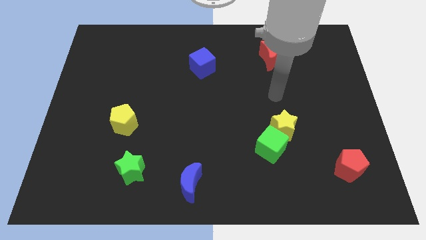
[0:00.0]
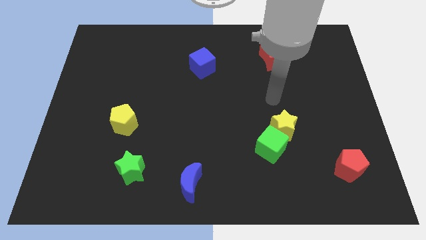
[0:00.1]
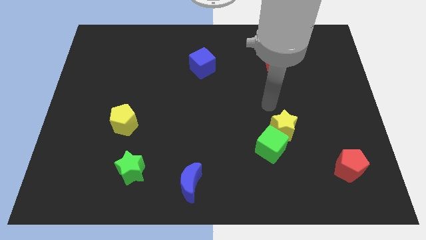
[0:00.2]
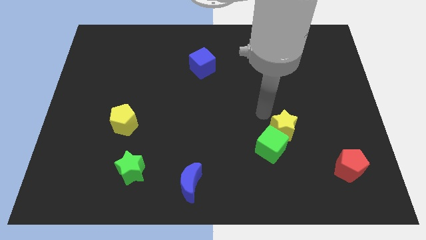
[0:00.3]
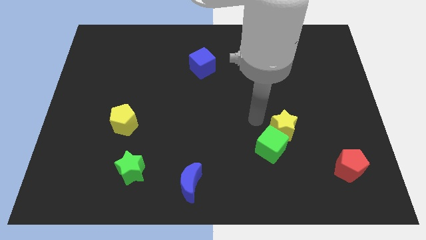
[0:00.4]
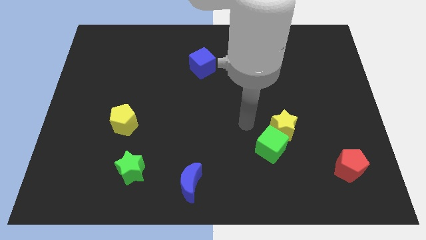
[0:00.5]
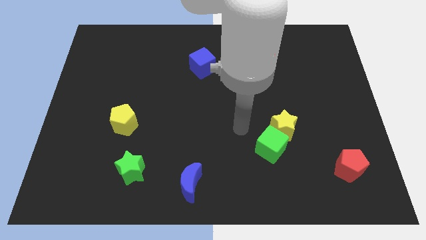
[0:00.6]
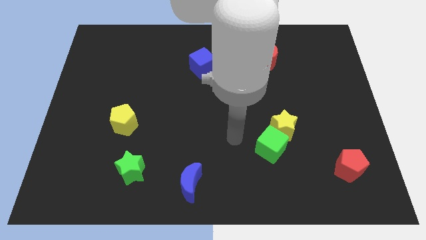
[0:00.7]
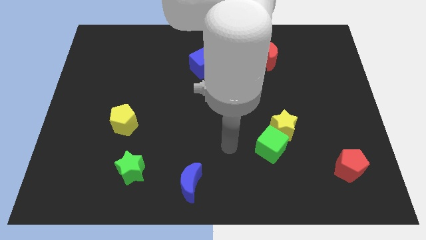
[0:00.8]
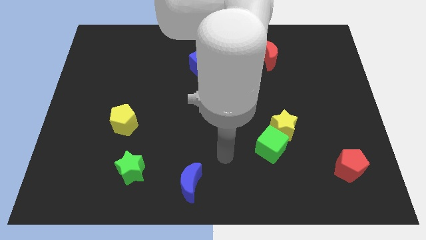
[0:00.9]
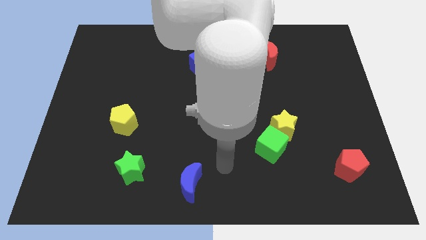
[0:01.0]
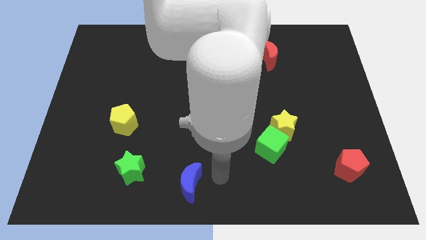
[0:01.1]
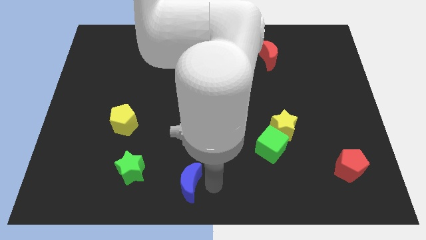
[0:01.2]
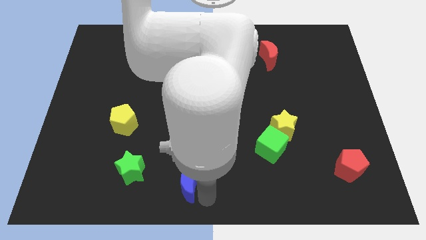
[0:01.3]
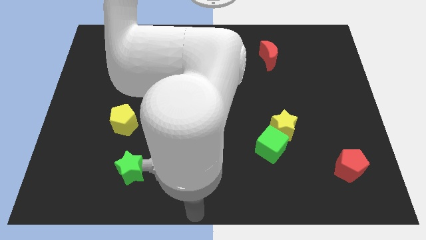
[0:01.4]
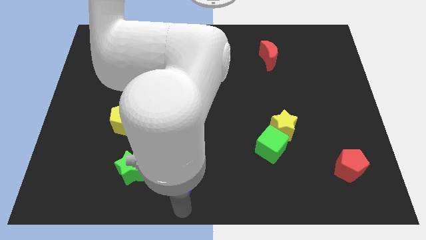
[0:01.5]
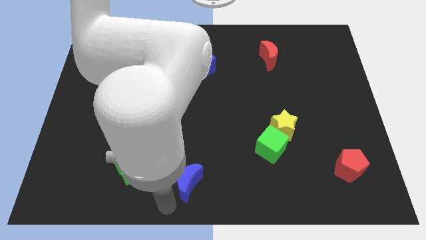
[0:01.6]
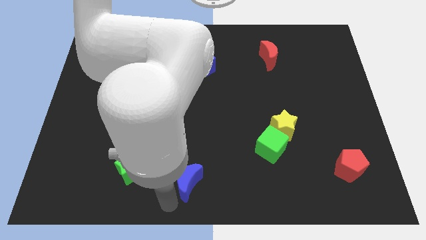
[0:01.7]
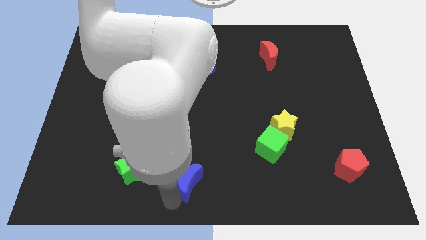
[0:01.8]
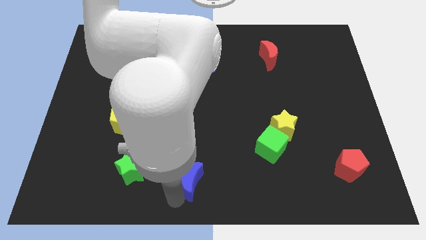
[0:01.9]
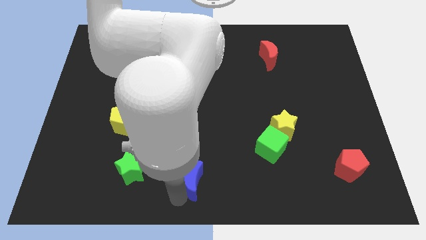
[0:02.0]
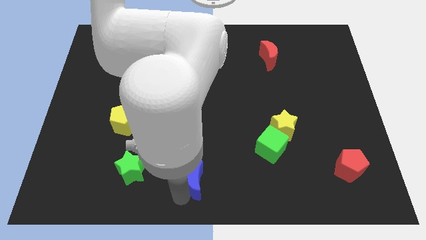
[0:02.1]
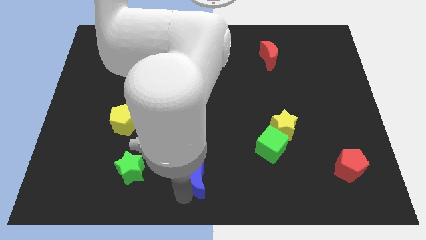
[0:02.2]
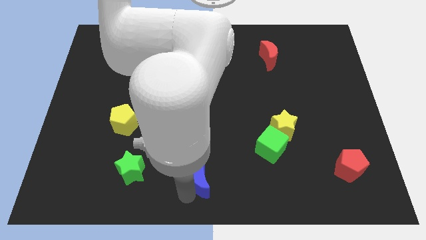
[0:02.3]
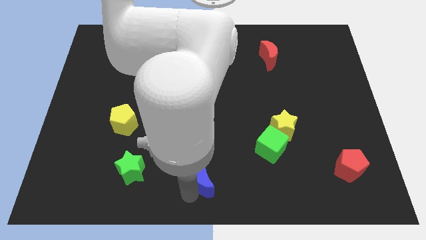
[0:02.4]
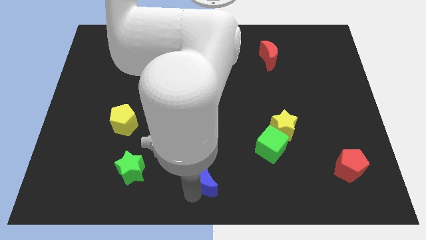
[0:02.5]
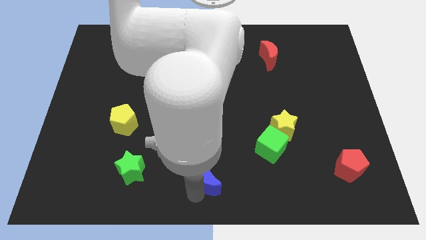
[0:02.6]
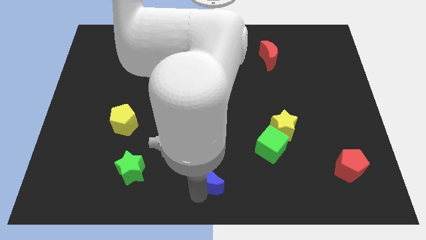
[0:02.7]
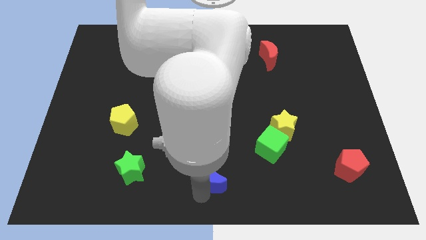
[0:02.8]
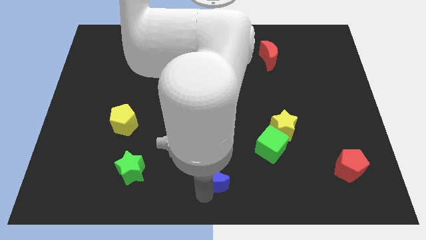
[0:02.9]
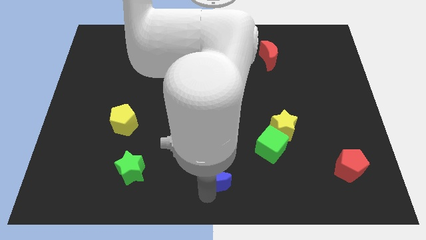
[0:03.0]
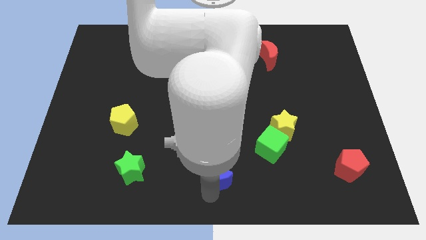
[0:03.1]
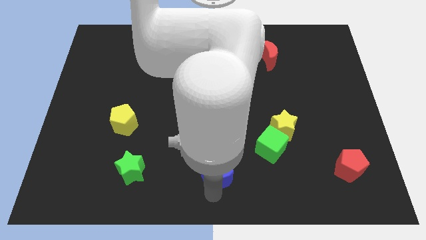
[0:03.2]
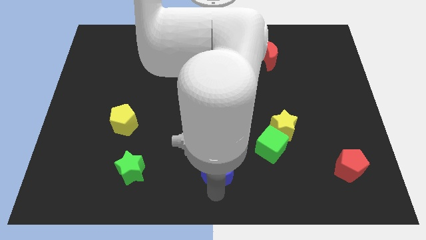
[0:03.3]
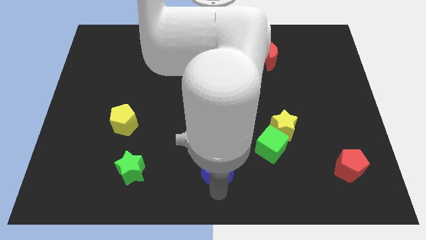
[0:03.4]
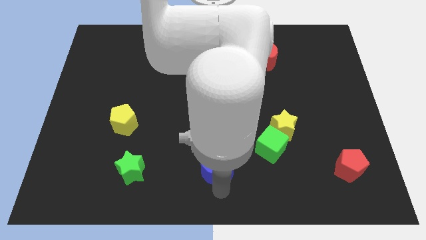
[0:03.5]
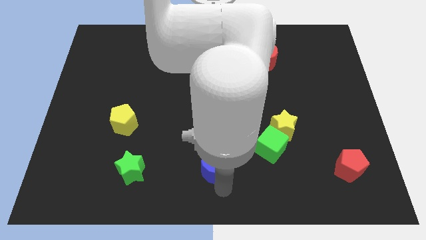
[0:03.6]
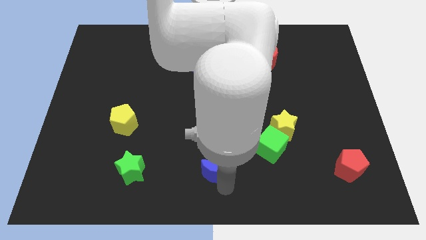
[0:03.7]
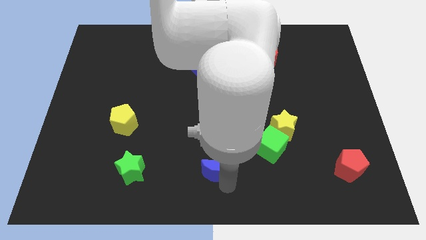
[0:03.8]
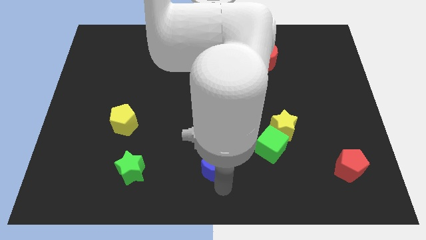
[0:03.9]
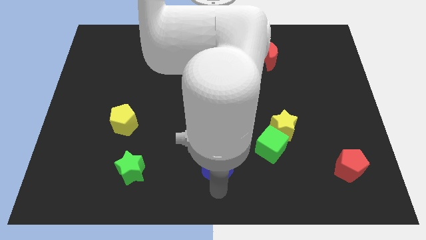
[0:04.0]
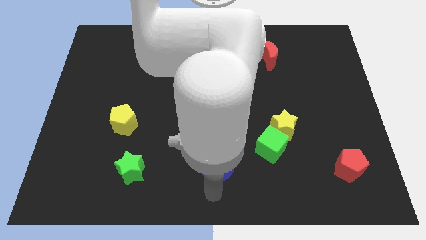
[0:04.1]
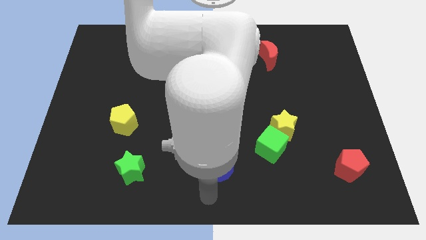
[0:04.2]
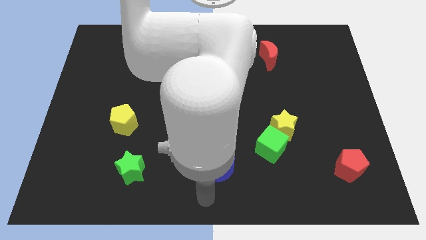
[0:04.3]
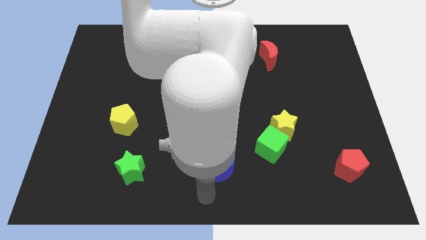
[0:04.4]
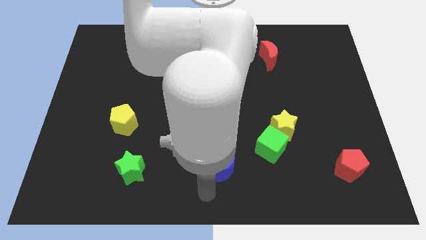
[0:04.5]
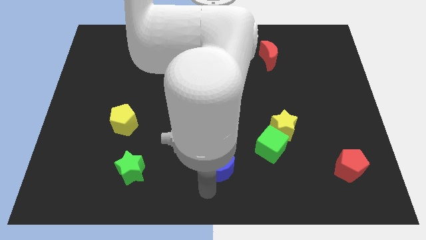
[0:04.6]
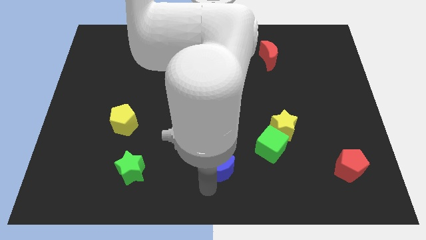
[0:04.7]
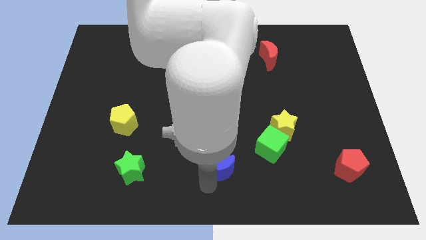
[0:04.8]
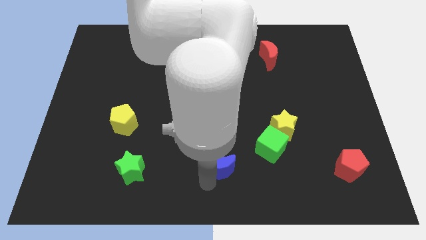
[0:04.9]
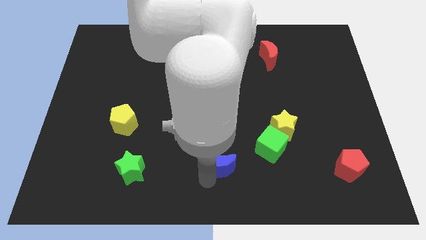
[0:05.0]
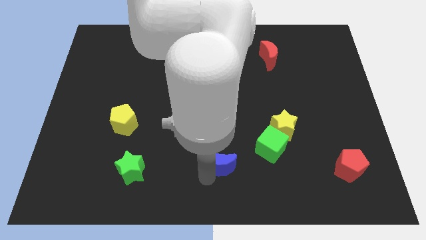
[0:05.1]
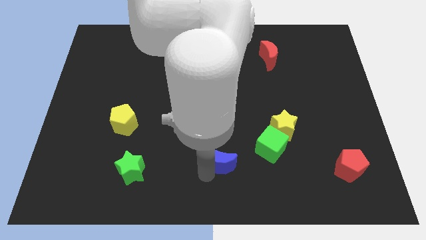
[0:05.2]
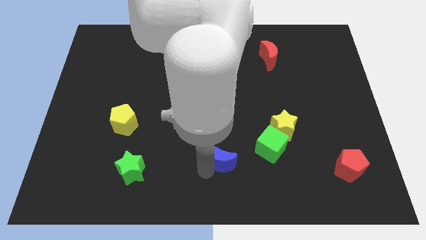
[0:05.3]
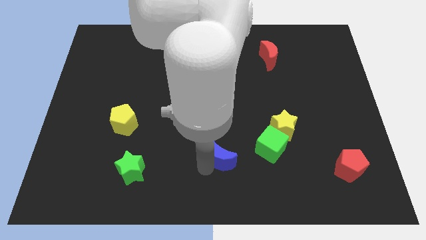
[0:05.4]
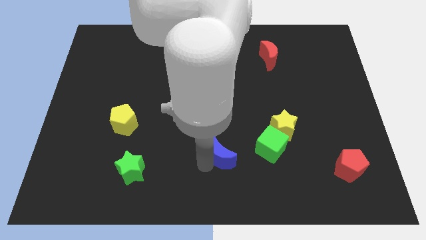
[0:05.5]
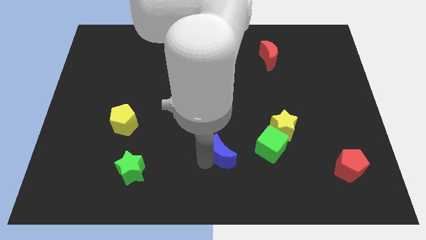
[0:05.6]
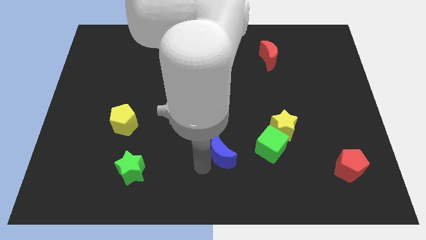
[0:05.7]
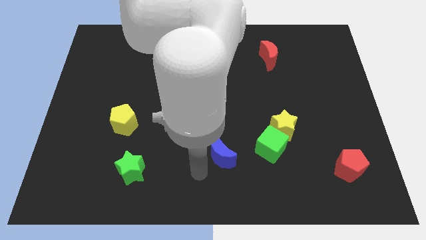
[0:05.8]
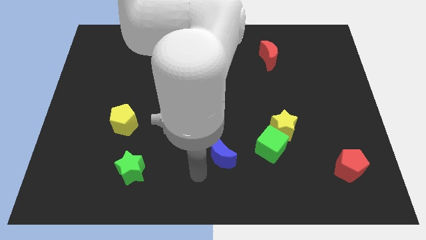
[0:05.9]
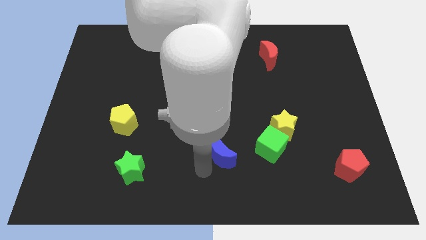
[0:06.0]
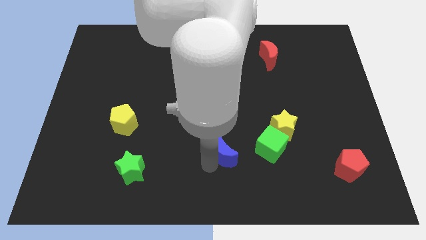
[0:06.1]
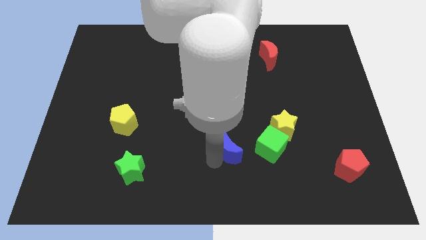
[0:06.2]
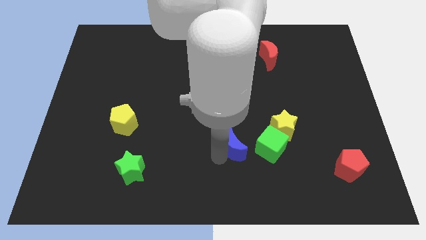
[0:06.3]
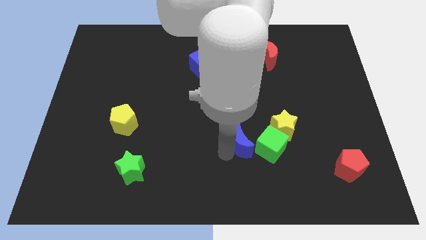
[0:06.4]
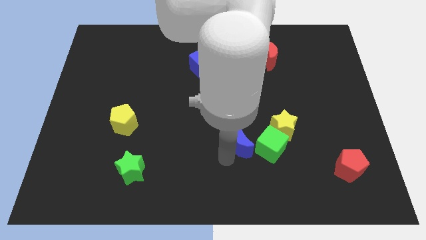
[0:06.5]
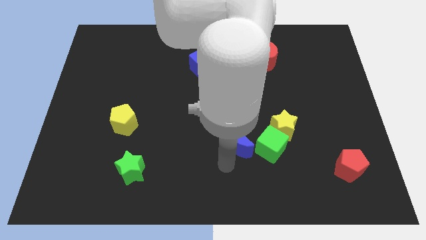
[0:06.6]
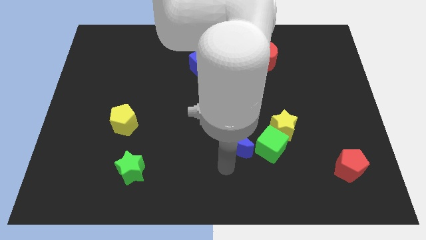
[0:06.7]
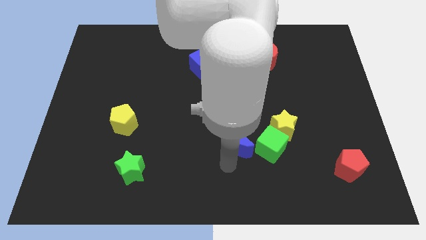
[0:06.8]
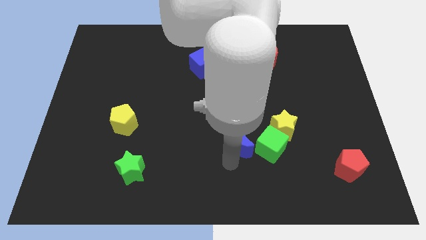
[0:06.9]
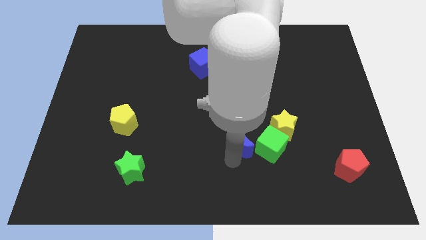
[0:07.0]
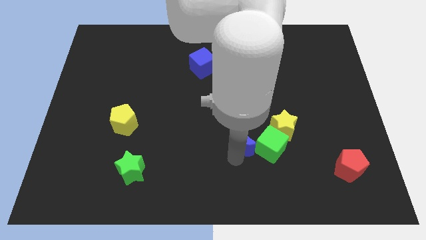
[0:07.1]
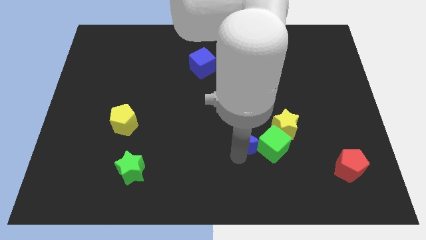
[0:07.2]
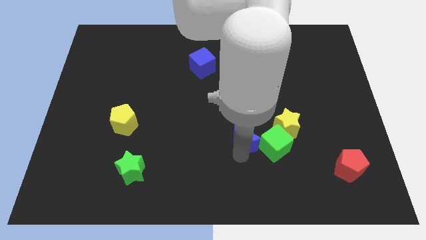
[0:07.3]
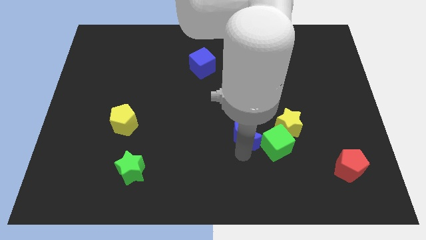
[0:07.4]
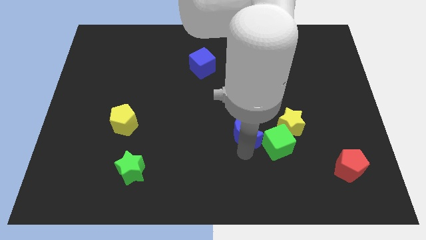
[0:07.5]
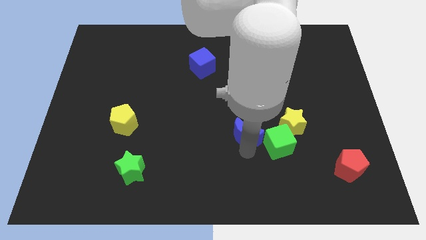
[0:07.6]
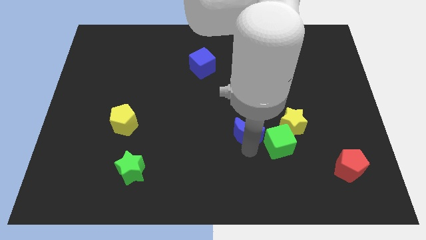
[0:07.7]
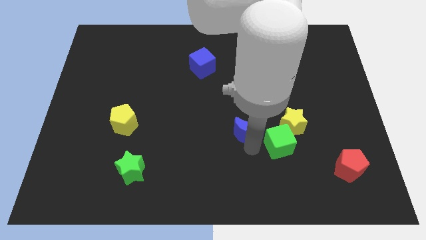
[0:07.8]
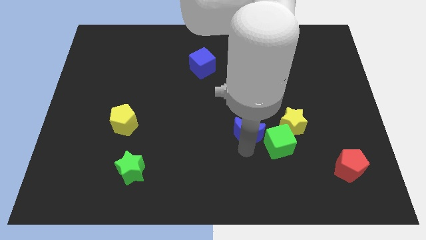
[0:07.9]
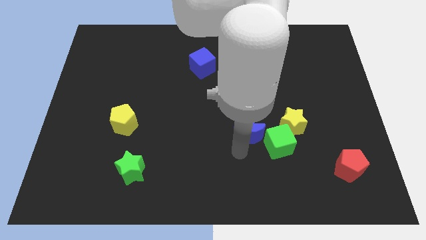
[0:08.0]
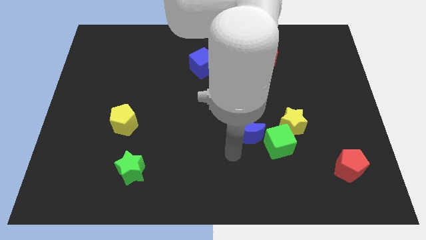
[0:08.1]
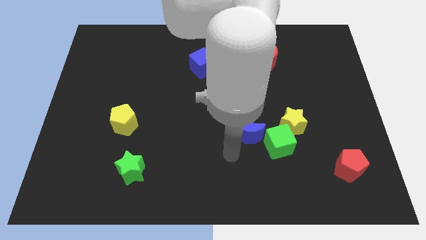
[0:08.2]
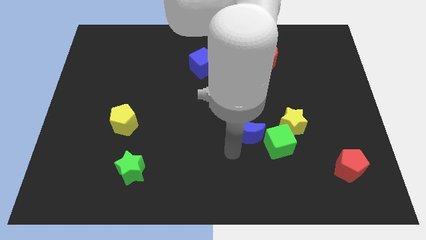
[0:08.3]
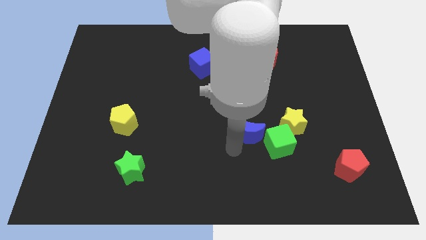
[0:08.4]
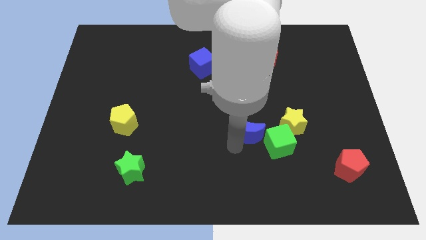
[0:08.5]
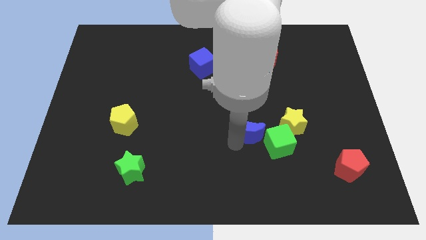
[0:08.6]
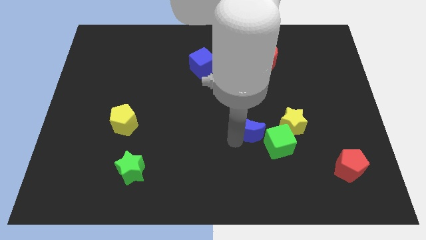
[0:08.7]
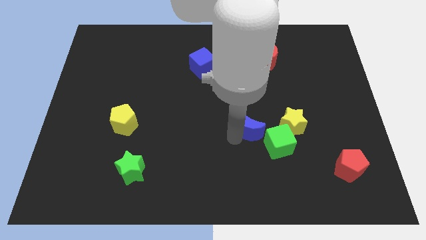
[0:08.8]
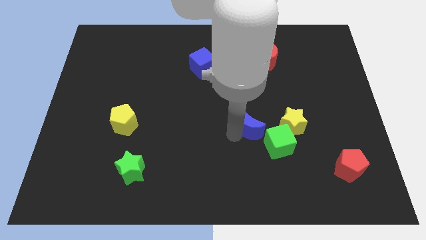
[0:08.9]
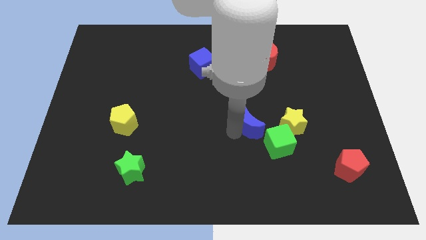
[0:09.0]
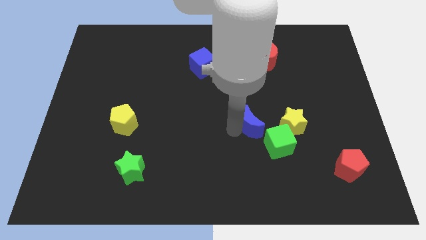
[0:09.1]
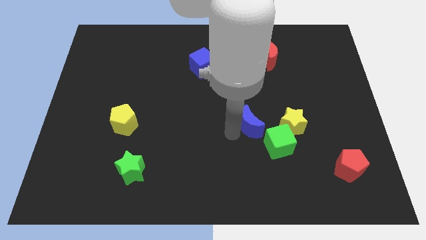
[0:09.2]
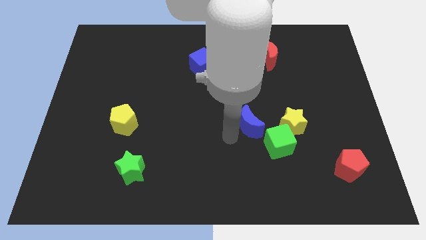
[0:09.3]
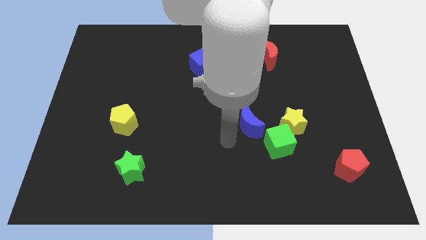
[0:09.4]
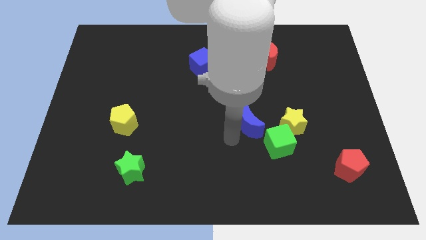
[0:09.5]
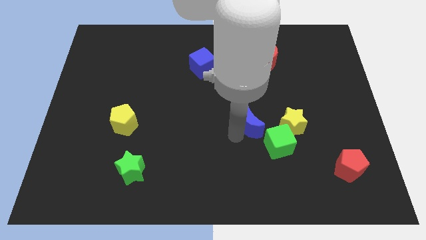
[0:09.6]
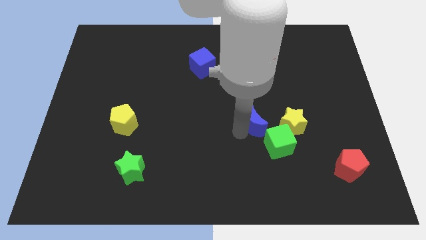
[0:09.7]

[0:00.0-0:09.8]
move the blue moon up and right diagonally
